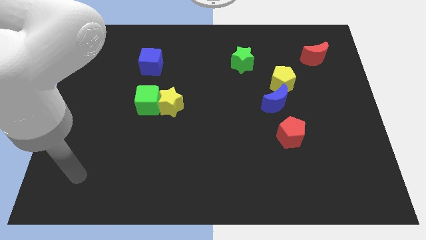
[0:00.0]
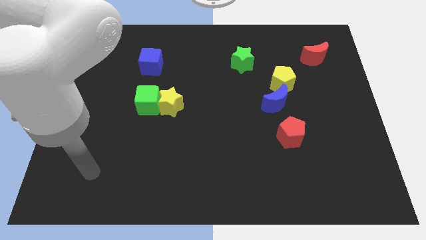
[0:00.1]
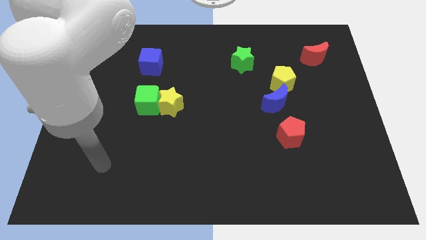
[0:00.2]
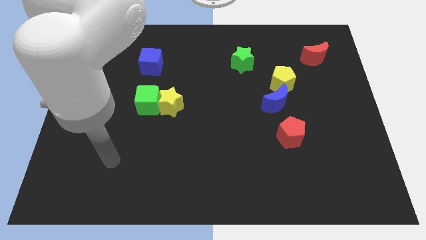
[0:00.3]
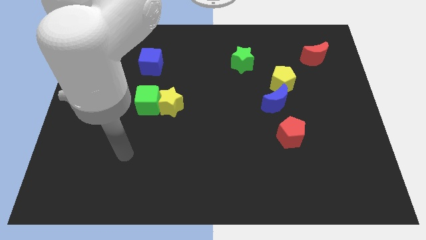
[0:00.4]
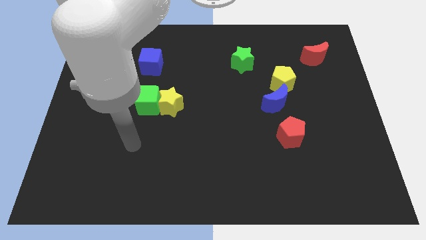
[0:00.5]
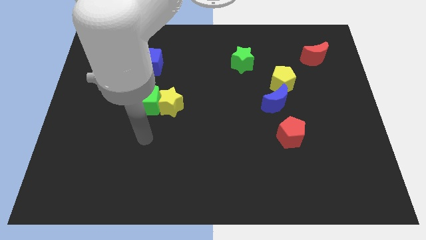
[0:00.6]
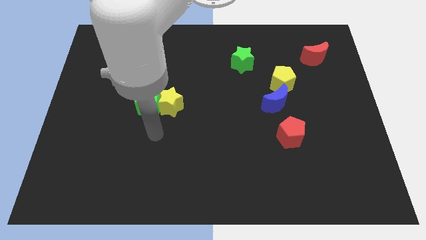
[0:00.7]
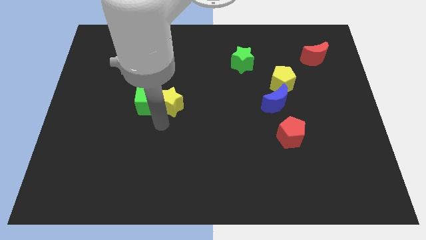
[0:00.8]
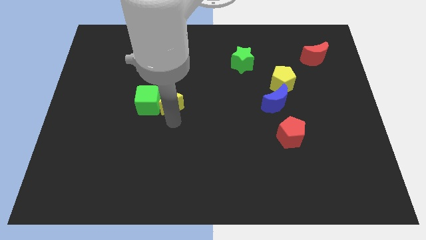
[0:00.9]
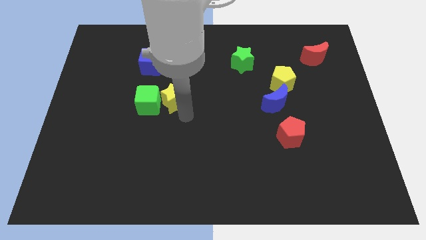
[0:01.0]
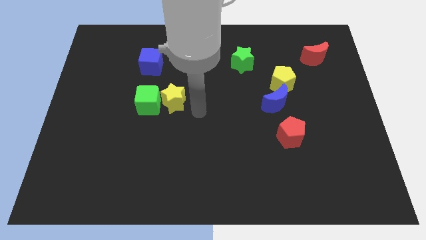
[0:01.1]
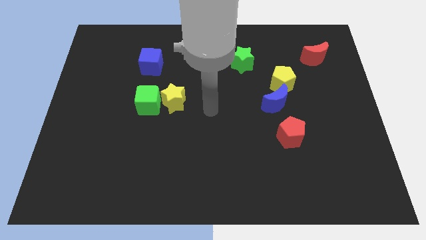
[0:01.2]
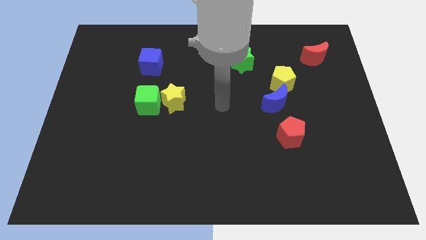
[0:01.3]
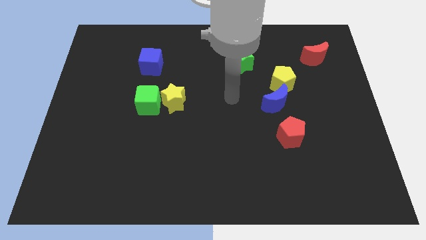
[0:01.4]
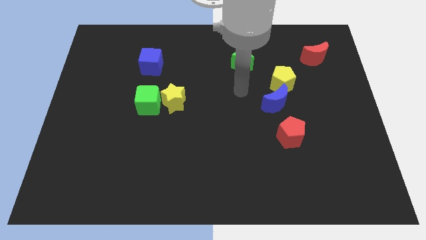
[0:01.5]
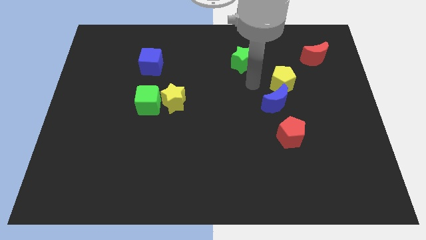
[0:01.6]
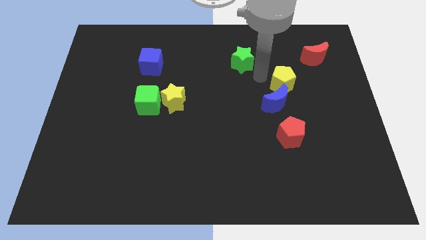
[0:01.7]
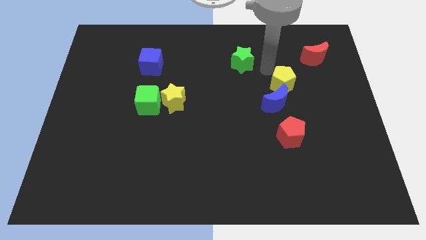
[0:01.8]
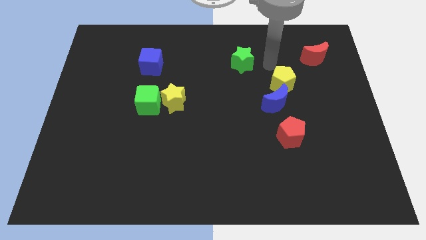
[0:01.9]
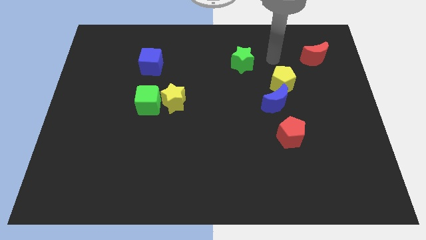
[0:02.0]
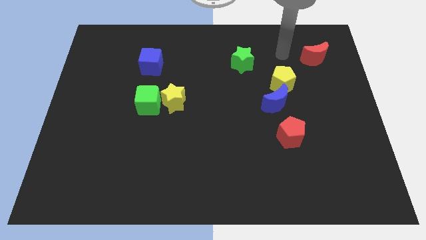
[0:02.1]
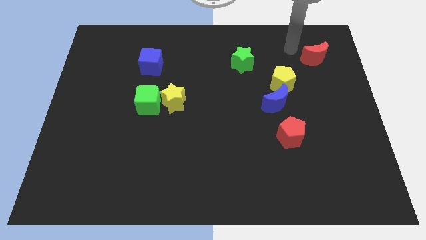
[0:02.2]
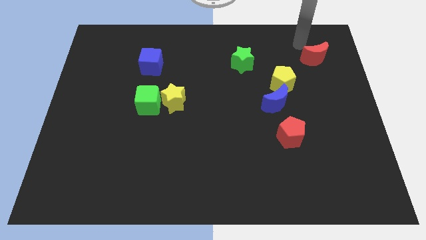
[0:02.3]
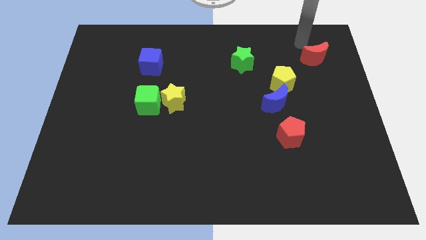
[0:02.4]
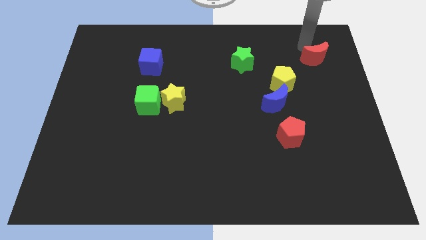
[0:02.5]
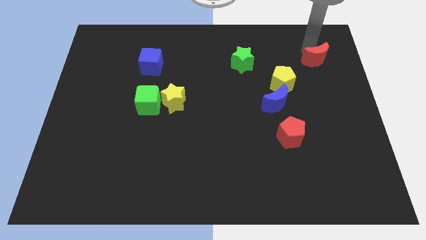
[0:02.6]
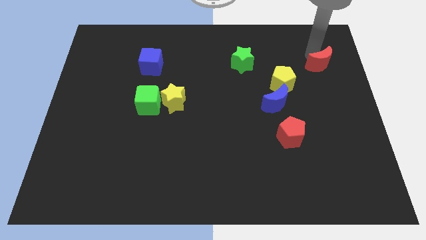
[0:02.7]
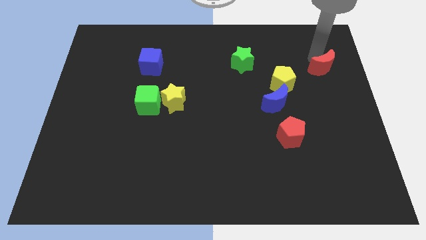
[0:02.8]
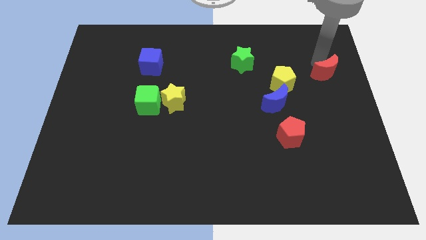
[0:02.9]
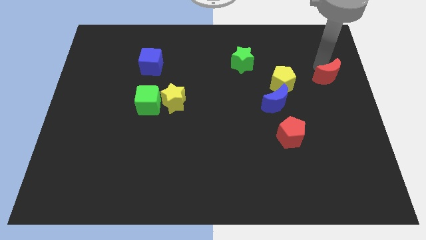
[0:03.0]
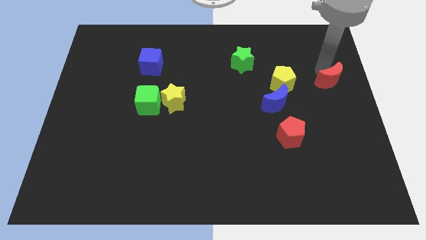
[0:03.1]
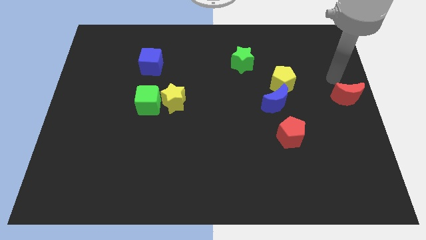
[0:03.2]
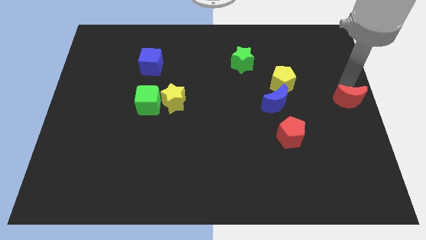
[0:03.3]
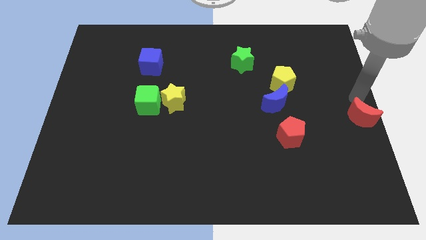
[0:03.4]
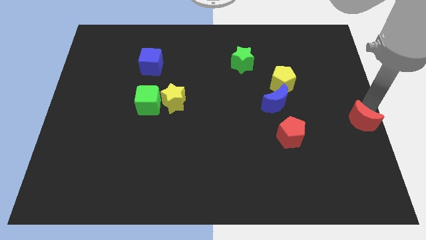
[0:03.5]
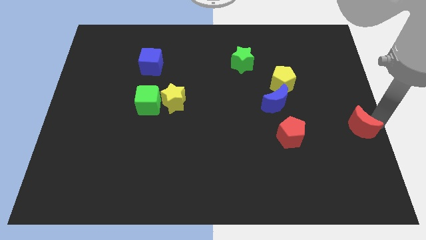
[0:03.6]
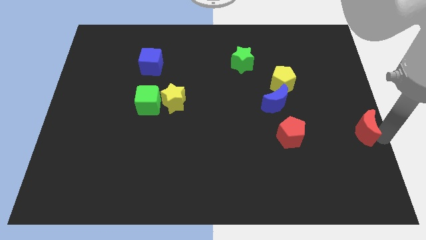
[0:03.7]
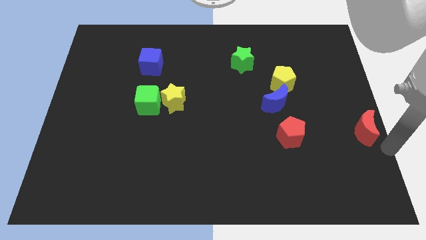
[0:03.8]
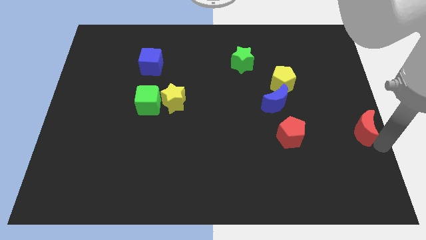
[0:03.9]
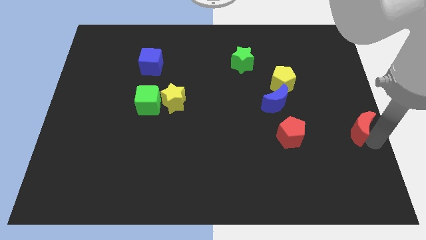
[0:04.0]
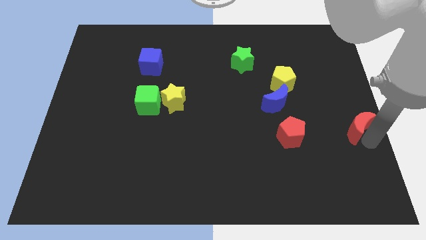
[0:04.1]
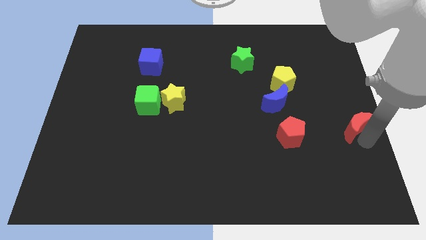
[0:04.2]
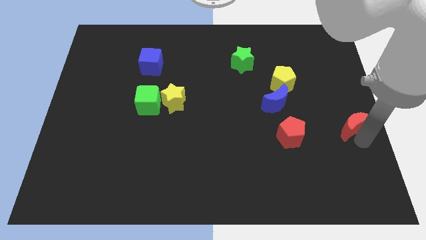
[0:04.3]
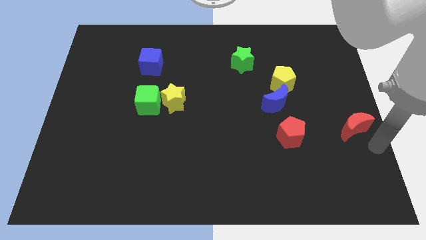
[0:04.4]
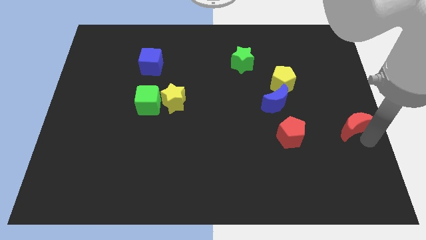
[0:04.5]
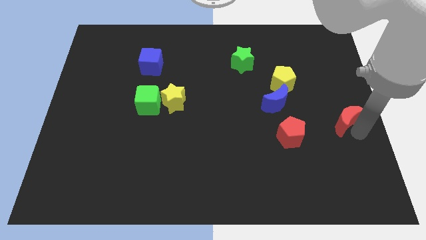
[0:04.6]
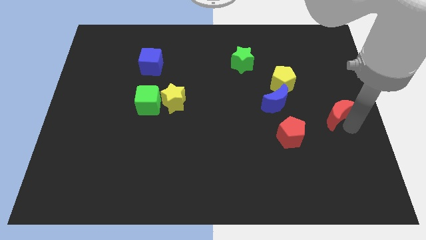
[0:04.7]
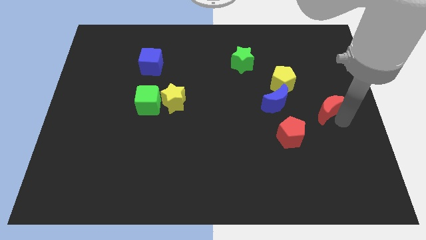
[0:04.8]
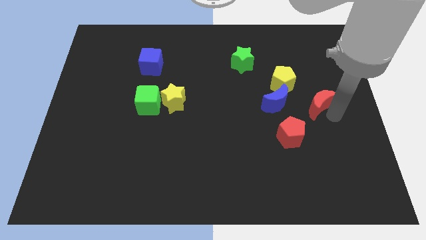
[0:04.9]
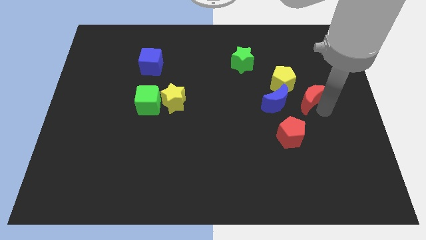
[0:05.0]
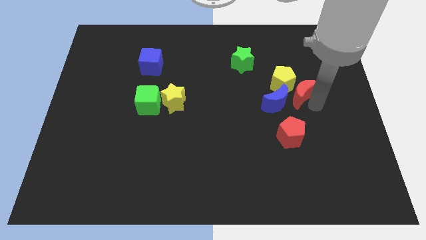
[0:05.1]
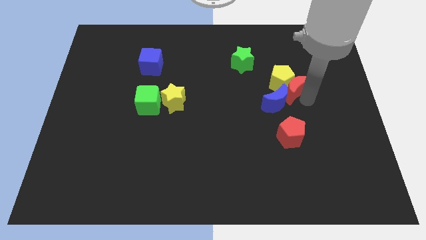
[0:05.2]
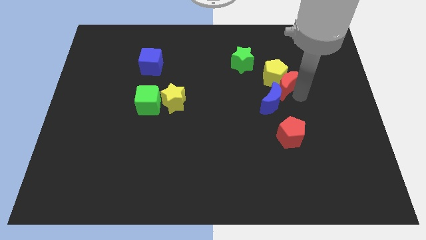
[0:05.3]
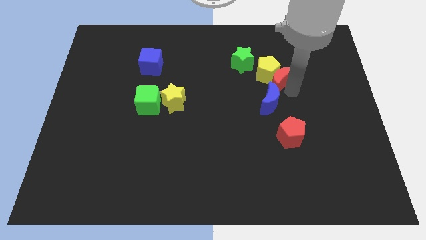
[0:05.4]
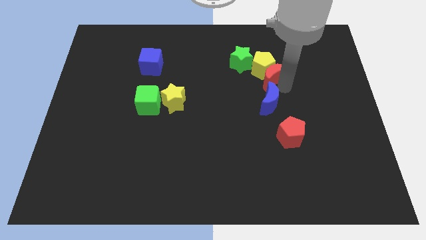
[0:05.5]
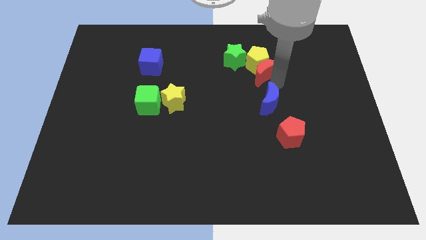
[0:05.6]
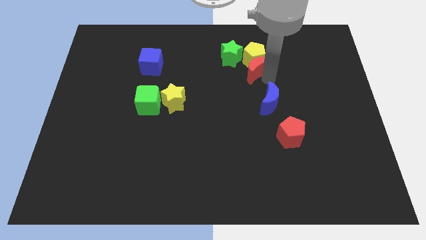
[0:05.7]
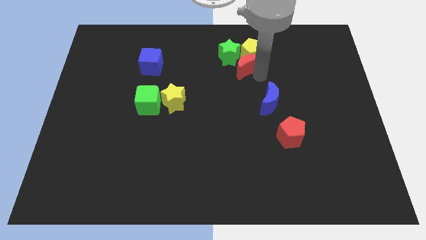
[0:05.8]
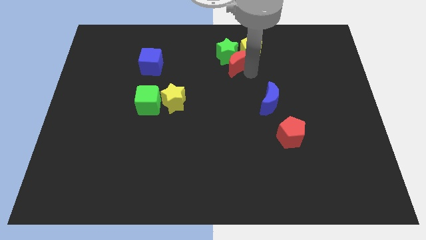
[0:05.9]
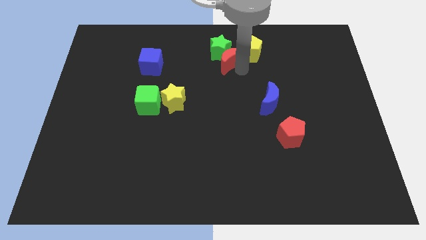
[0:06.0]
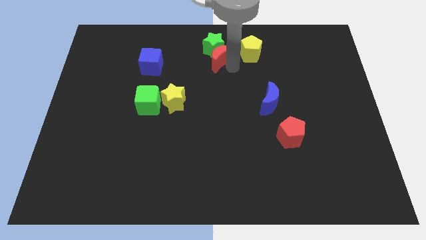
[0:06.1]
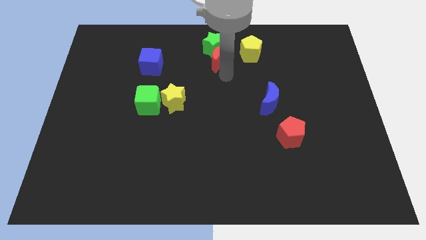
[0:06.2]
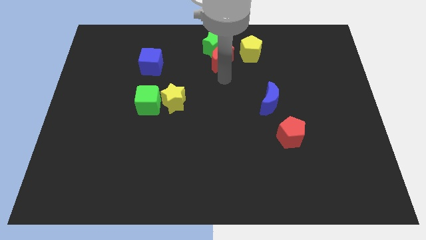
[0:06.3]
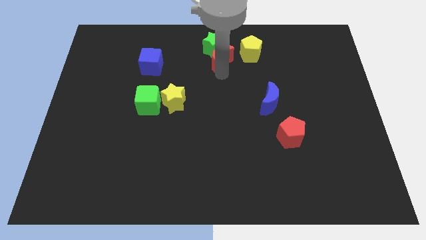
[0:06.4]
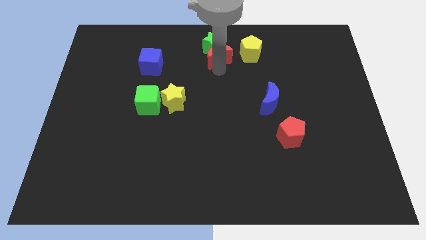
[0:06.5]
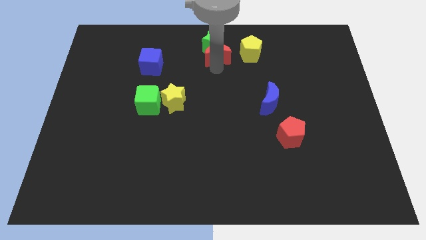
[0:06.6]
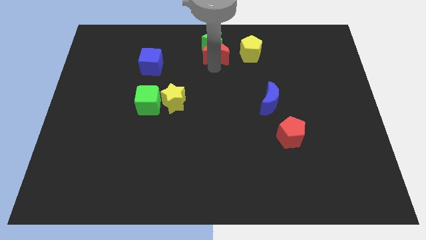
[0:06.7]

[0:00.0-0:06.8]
put the red moon to the towards your base
